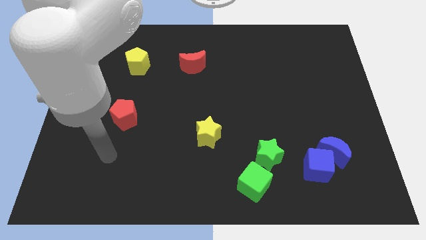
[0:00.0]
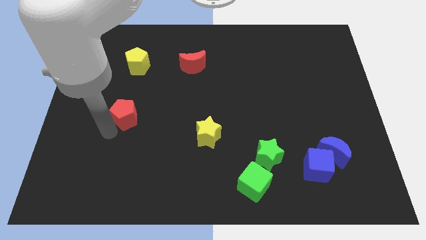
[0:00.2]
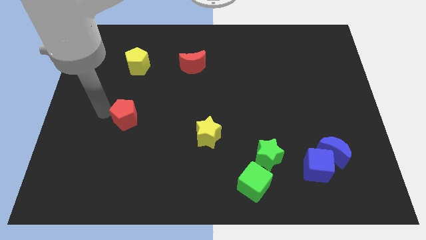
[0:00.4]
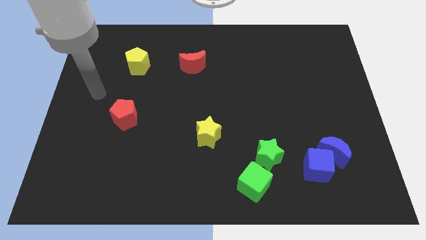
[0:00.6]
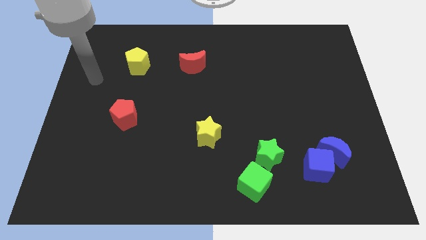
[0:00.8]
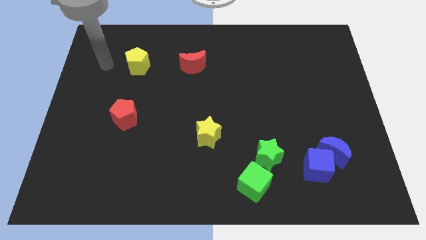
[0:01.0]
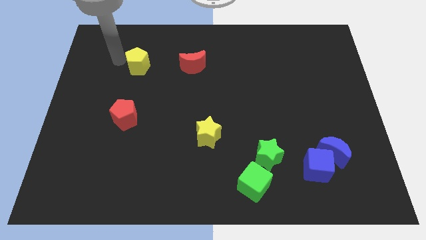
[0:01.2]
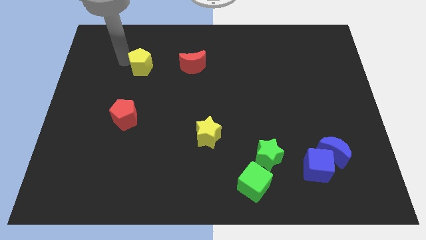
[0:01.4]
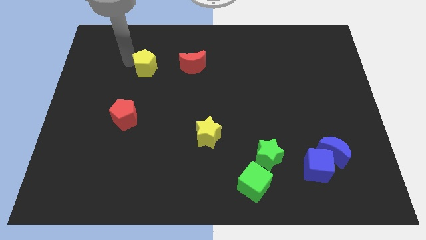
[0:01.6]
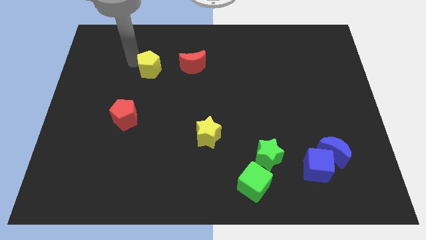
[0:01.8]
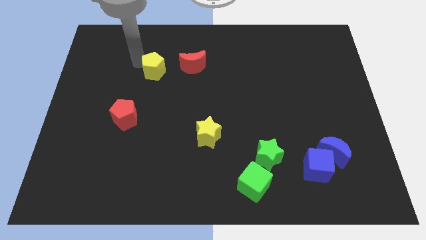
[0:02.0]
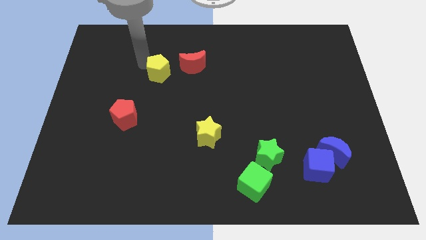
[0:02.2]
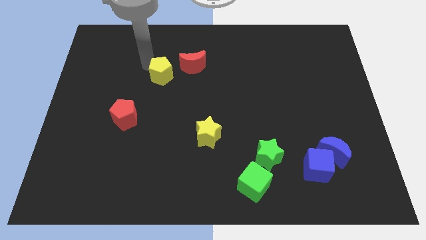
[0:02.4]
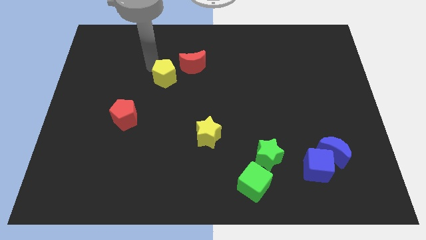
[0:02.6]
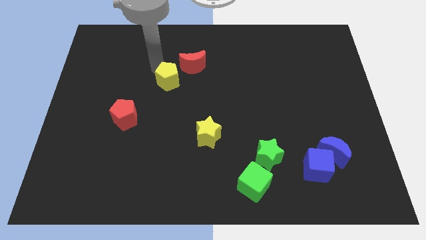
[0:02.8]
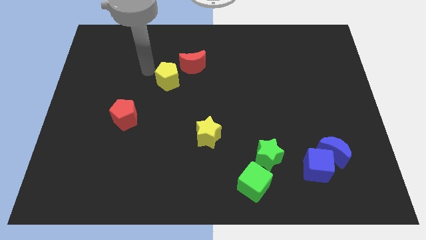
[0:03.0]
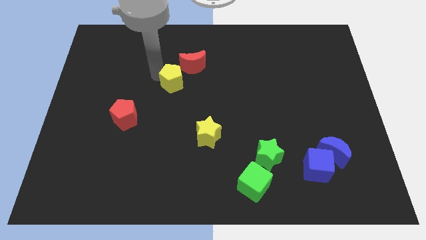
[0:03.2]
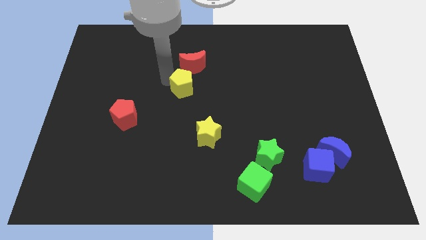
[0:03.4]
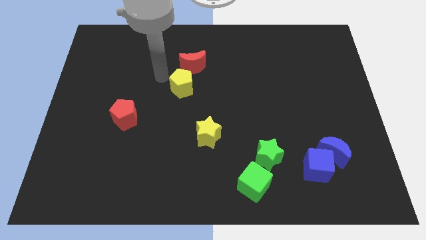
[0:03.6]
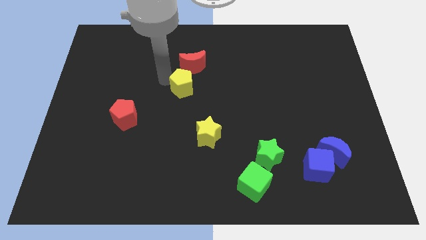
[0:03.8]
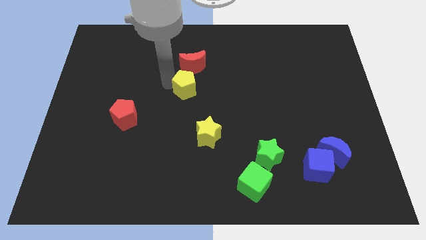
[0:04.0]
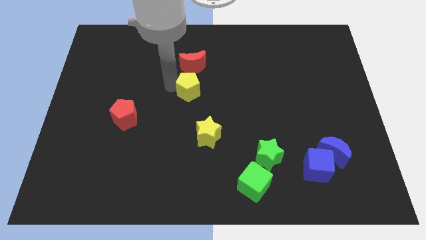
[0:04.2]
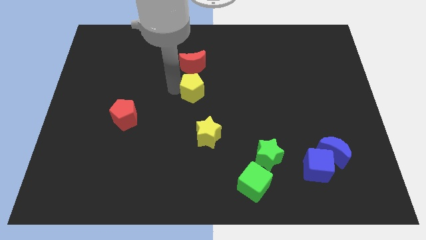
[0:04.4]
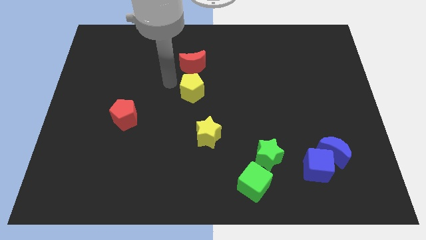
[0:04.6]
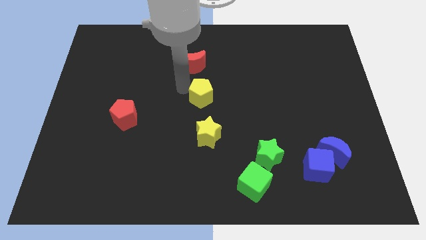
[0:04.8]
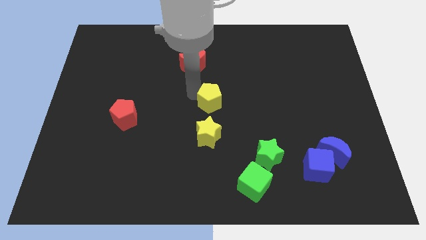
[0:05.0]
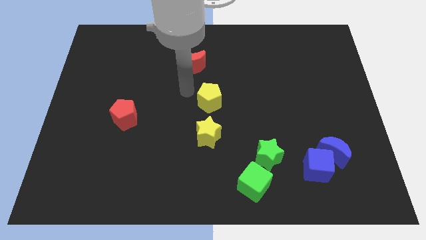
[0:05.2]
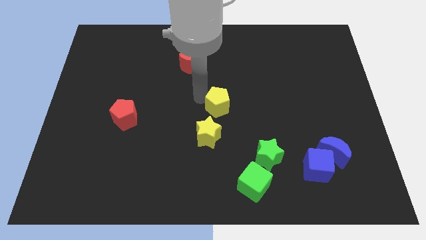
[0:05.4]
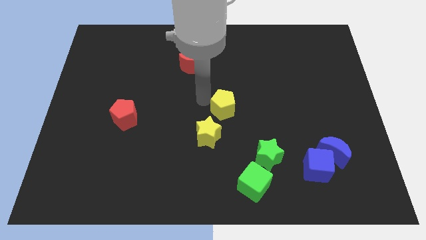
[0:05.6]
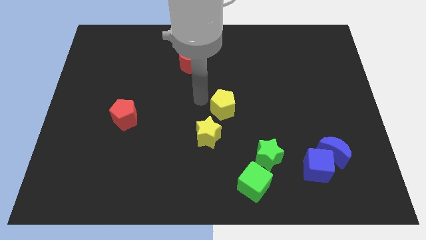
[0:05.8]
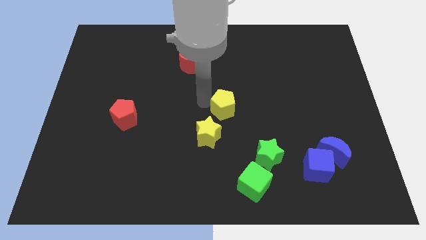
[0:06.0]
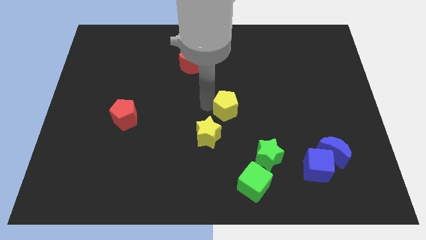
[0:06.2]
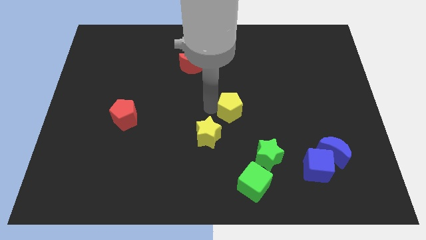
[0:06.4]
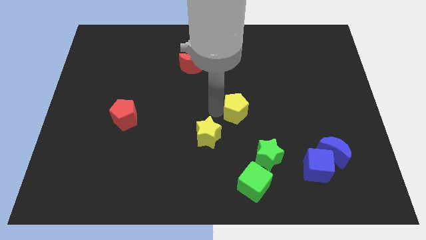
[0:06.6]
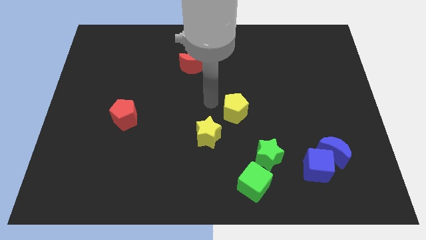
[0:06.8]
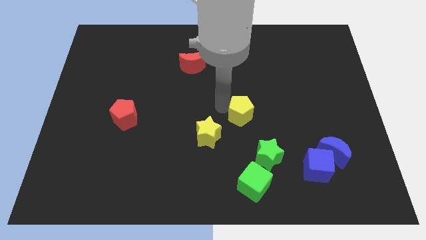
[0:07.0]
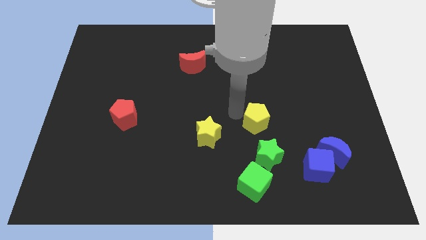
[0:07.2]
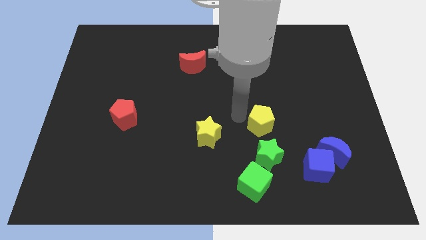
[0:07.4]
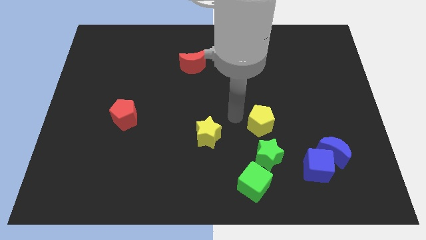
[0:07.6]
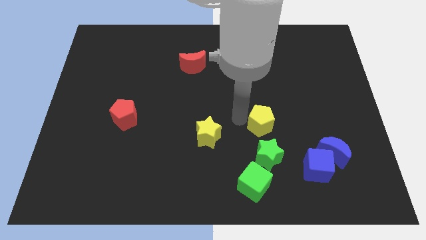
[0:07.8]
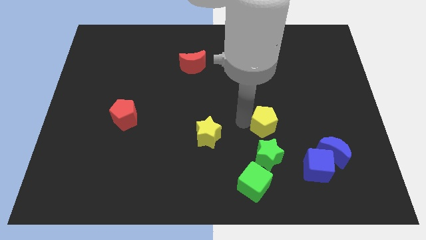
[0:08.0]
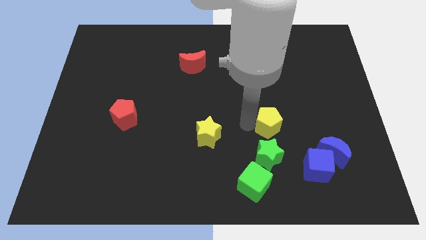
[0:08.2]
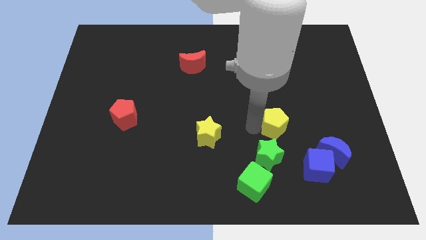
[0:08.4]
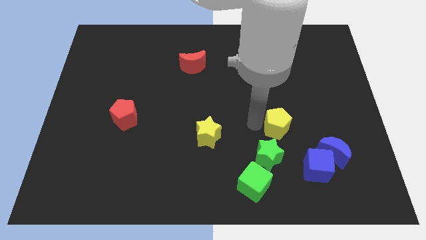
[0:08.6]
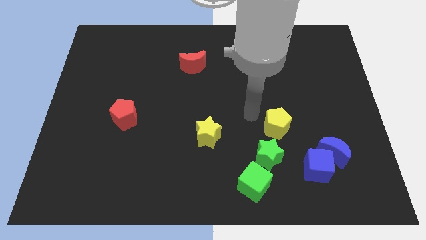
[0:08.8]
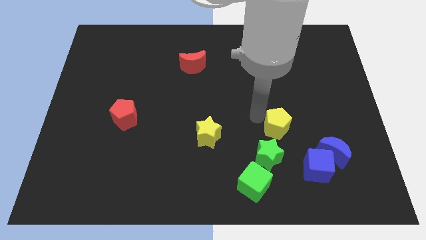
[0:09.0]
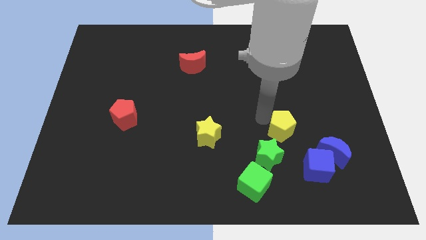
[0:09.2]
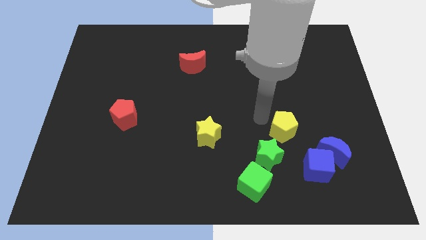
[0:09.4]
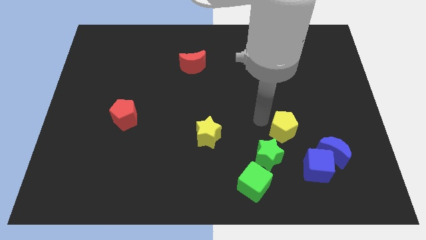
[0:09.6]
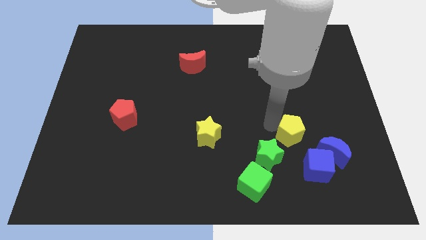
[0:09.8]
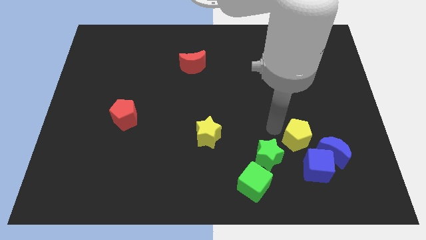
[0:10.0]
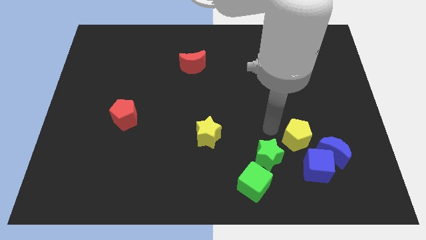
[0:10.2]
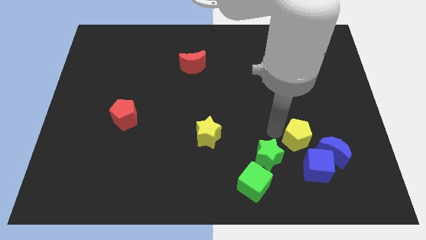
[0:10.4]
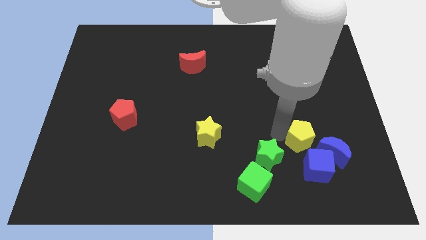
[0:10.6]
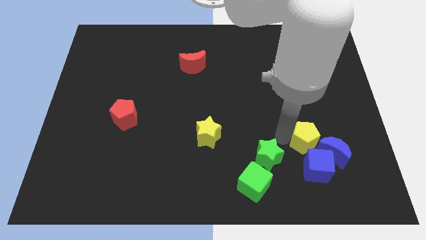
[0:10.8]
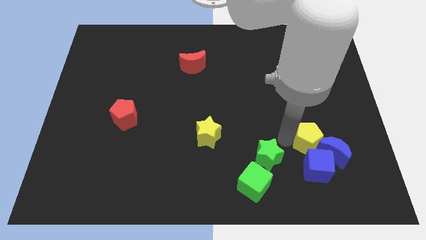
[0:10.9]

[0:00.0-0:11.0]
put the yellow pentagon close to the blue moon

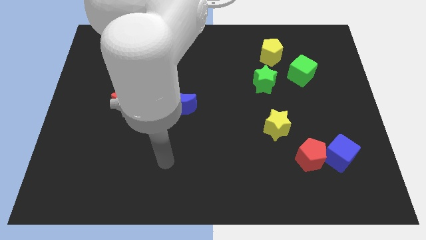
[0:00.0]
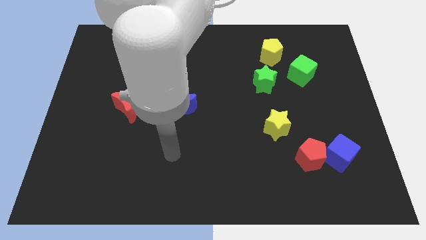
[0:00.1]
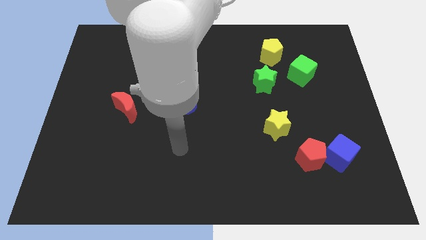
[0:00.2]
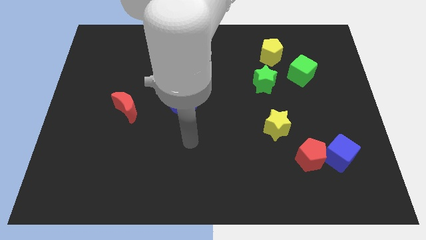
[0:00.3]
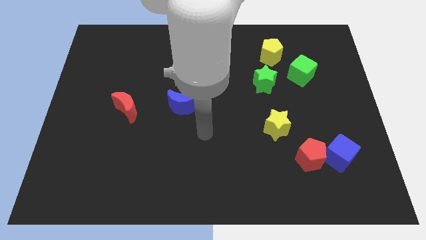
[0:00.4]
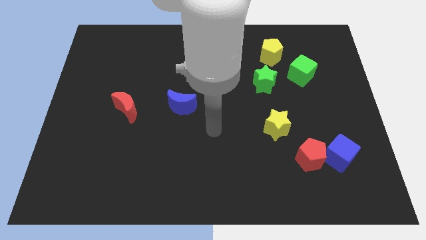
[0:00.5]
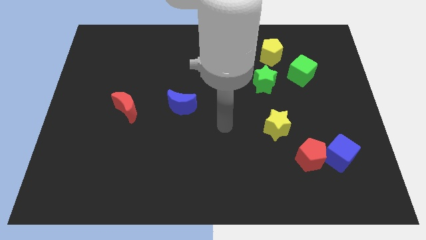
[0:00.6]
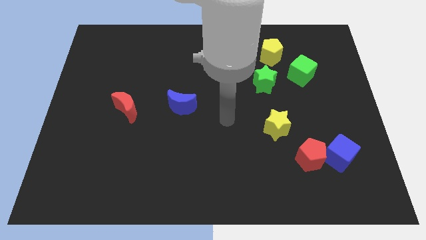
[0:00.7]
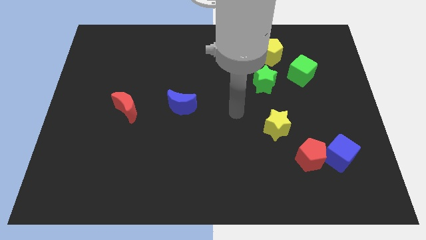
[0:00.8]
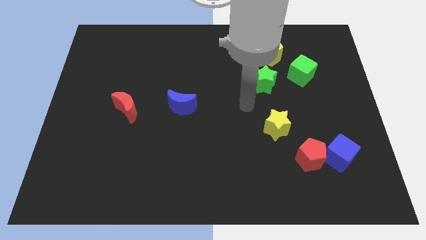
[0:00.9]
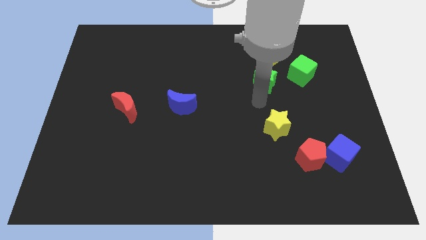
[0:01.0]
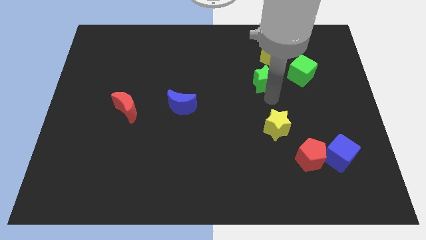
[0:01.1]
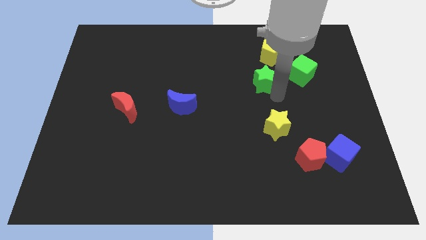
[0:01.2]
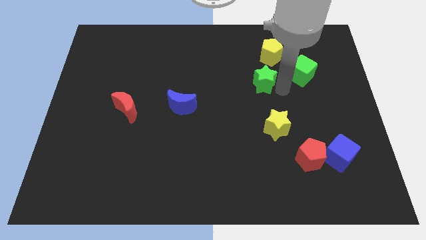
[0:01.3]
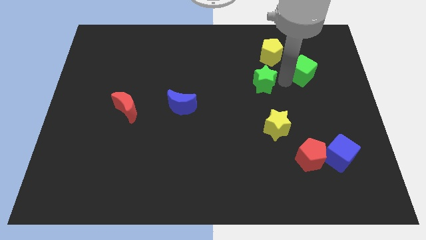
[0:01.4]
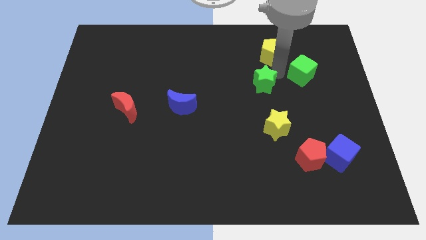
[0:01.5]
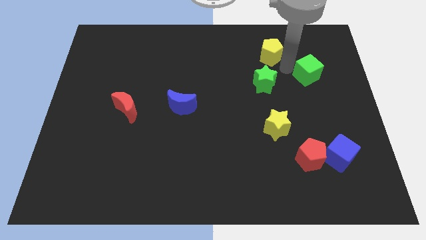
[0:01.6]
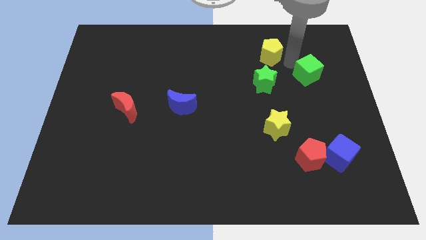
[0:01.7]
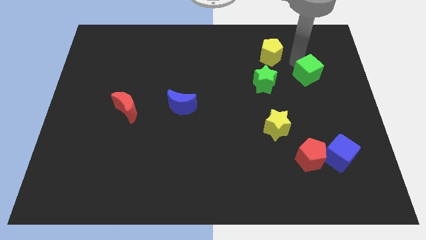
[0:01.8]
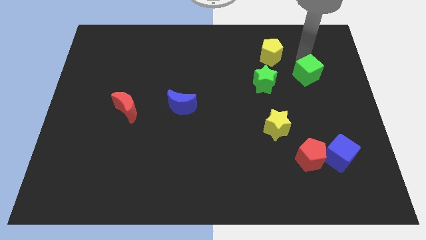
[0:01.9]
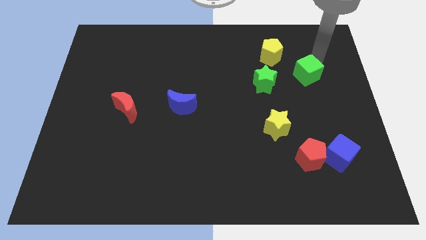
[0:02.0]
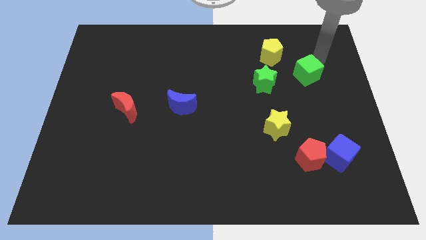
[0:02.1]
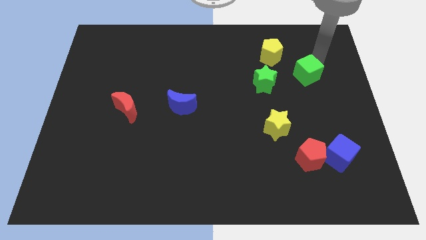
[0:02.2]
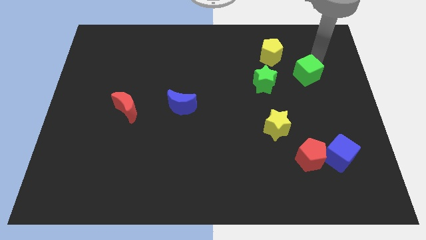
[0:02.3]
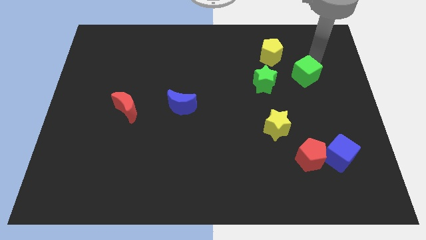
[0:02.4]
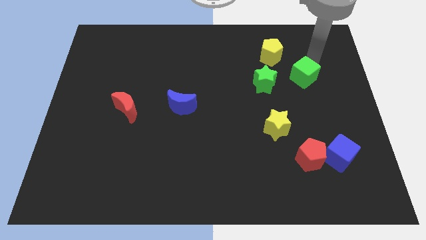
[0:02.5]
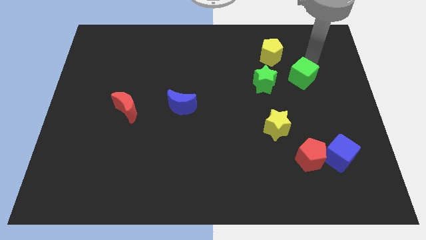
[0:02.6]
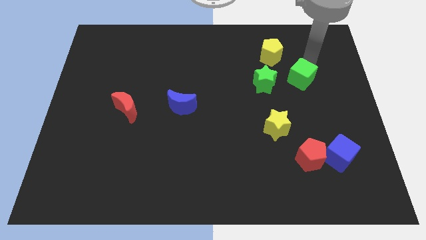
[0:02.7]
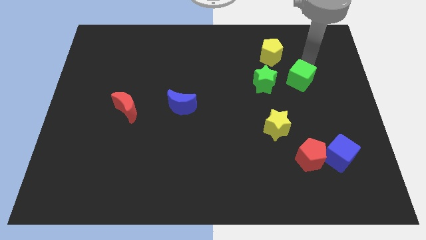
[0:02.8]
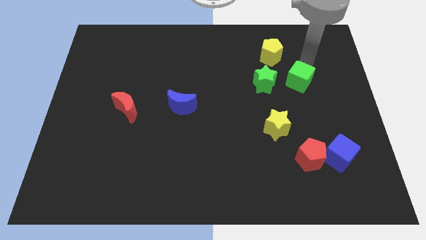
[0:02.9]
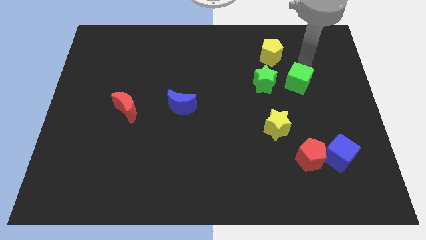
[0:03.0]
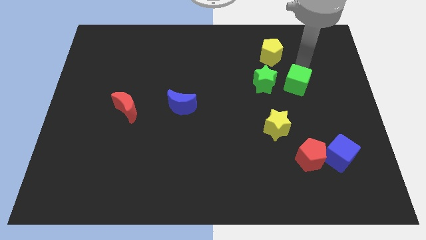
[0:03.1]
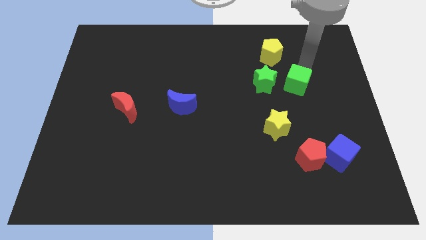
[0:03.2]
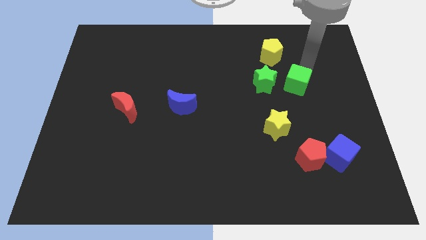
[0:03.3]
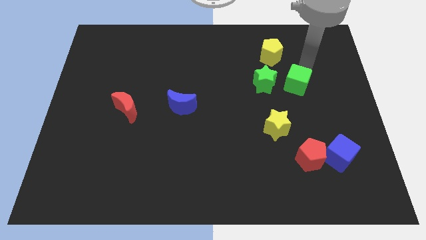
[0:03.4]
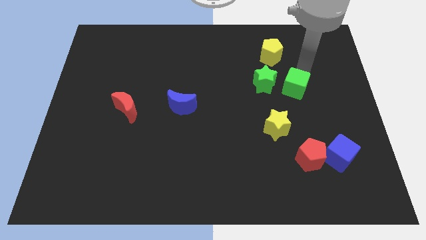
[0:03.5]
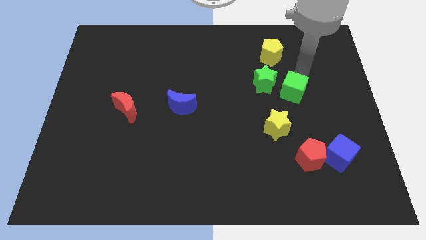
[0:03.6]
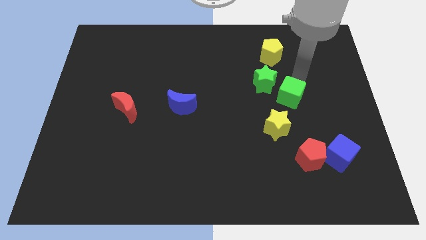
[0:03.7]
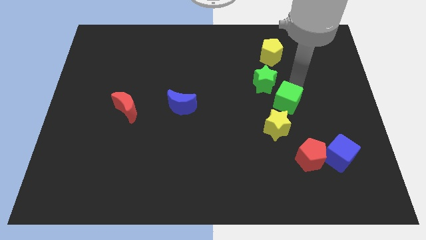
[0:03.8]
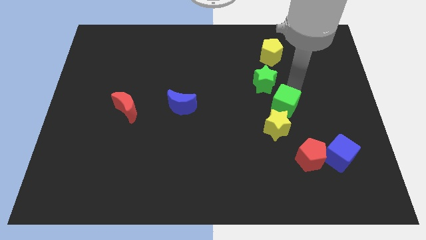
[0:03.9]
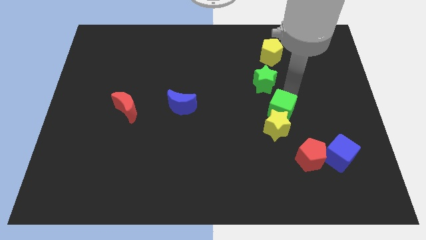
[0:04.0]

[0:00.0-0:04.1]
move the green cube next to the yellow star
